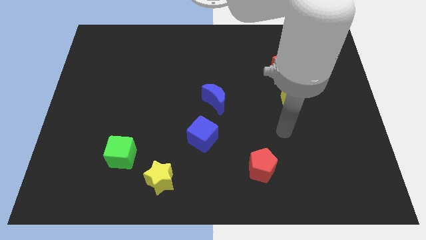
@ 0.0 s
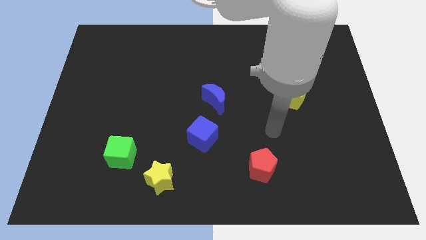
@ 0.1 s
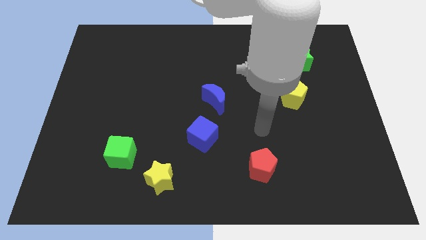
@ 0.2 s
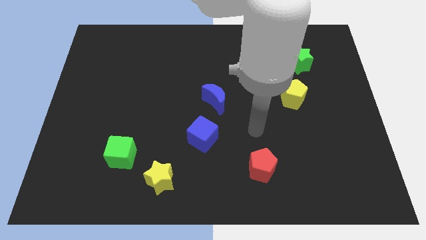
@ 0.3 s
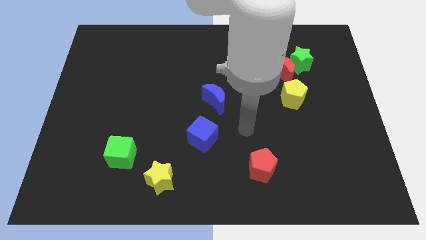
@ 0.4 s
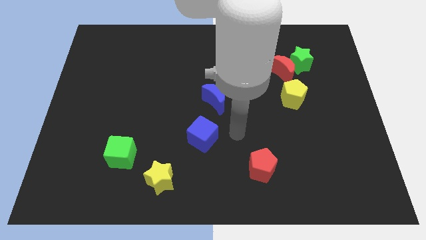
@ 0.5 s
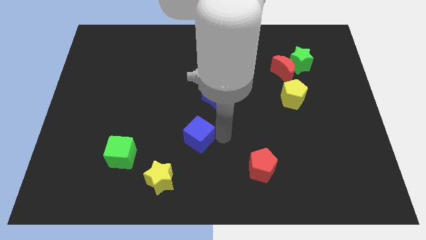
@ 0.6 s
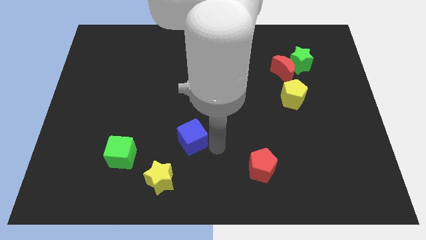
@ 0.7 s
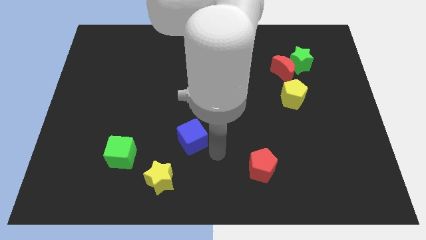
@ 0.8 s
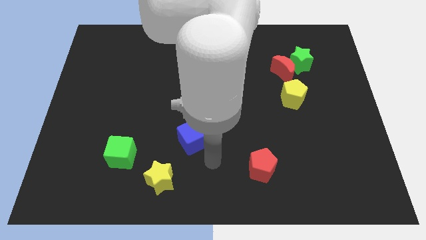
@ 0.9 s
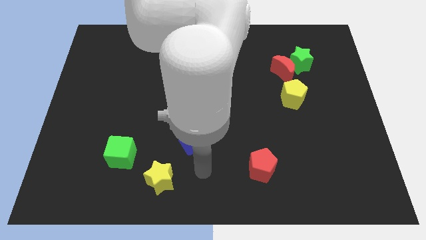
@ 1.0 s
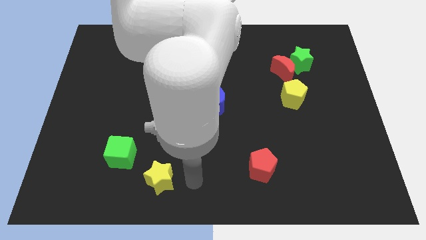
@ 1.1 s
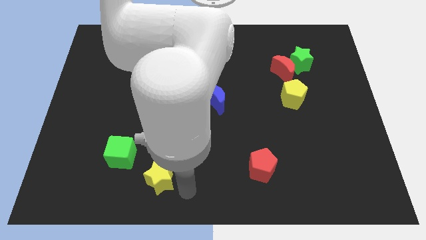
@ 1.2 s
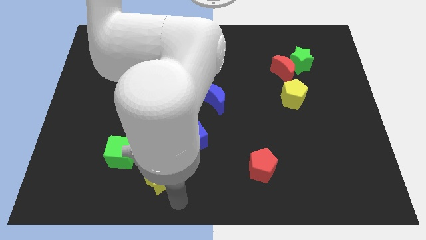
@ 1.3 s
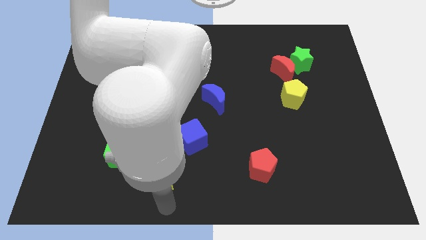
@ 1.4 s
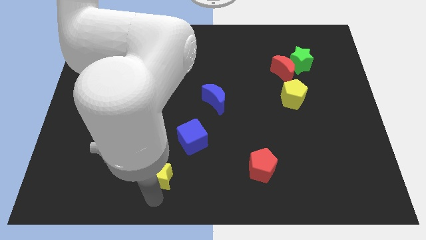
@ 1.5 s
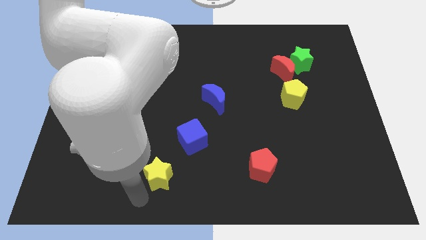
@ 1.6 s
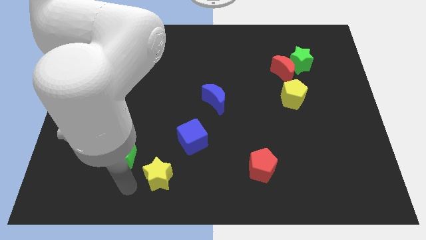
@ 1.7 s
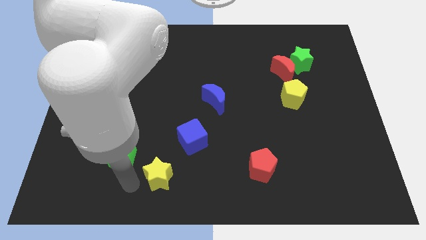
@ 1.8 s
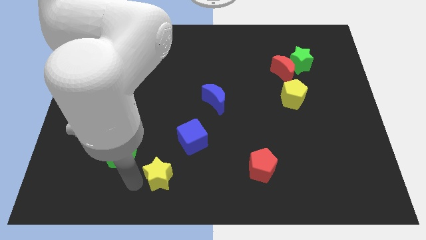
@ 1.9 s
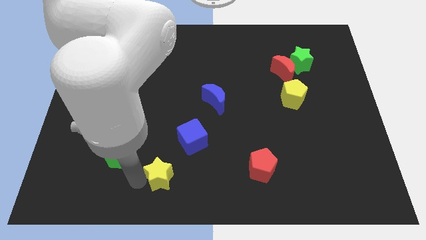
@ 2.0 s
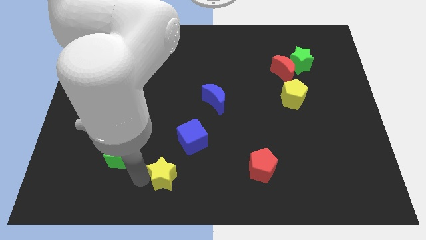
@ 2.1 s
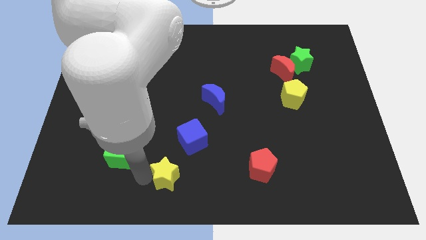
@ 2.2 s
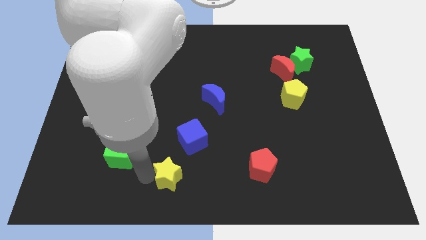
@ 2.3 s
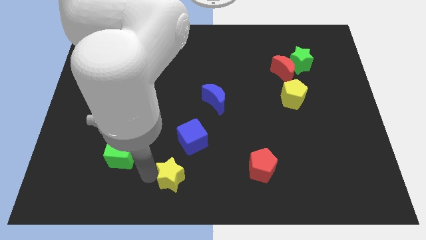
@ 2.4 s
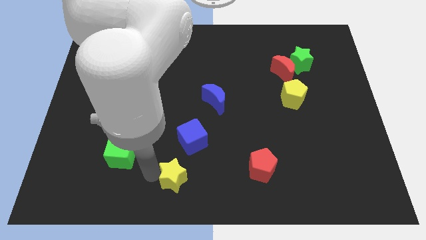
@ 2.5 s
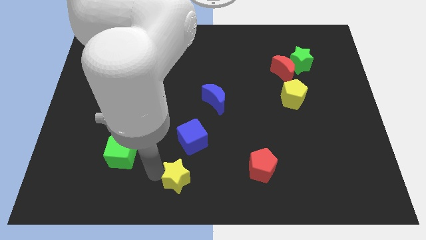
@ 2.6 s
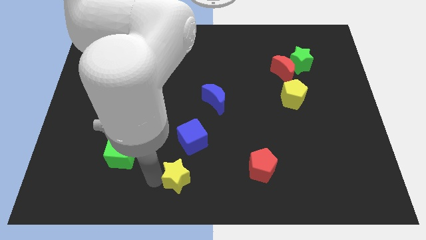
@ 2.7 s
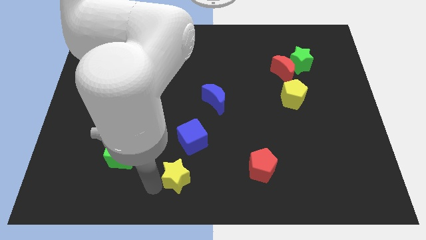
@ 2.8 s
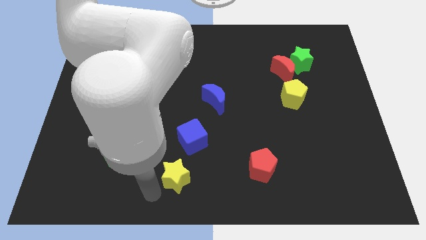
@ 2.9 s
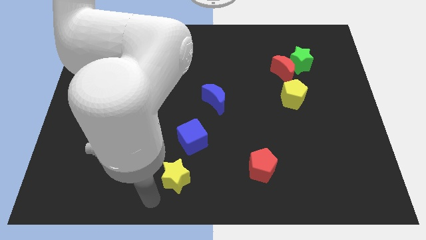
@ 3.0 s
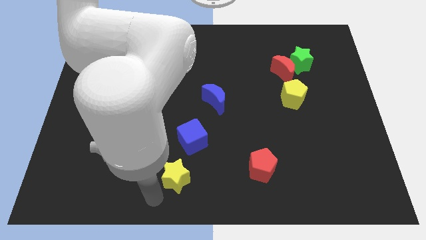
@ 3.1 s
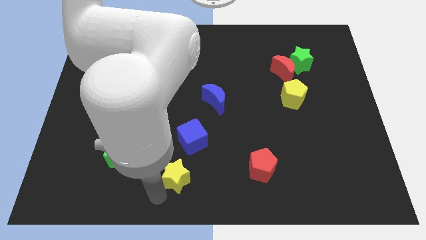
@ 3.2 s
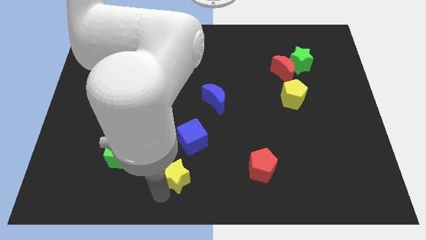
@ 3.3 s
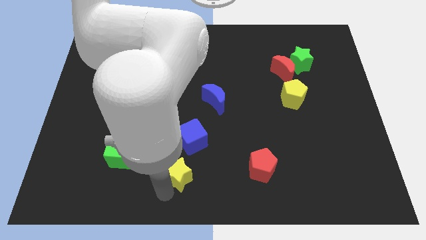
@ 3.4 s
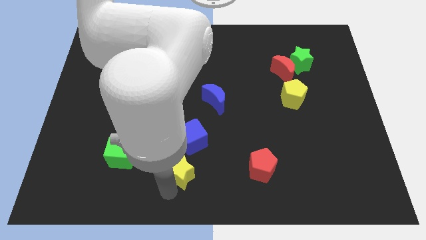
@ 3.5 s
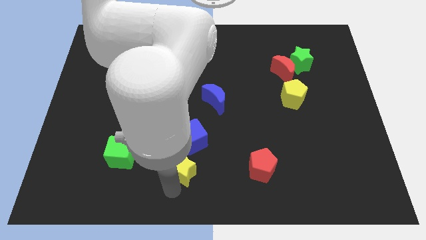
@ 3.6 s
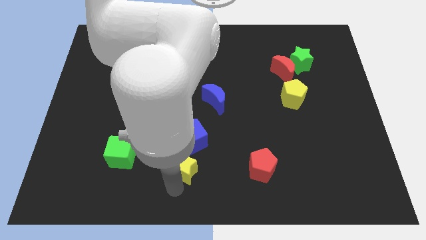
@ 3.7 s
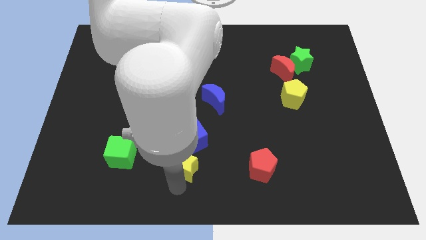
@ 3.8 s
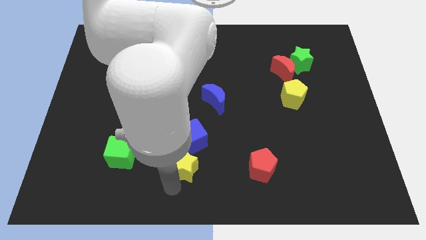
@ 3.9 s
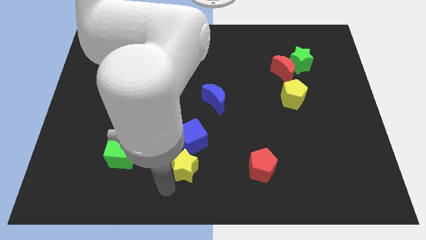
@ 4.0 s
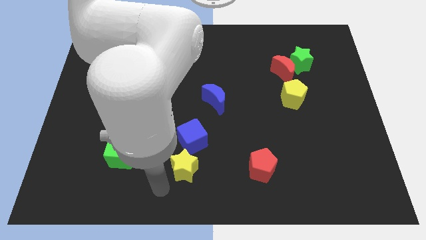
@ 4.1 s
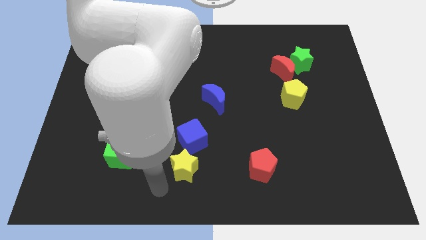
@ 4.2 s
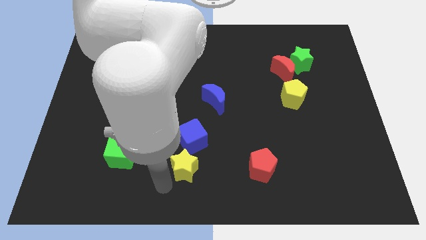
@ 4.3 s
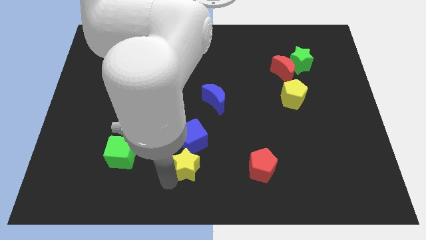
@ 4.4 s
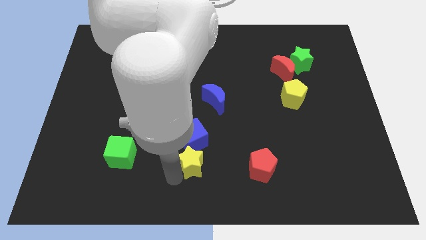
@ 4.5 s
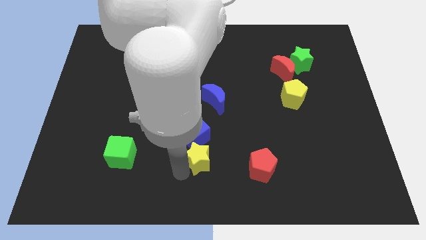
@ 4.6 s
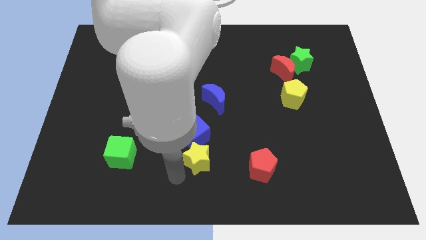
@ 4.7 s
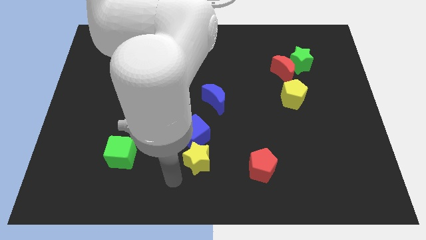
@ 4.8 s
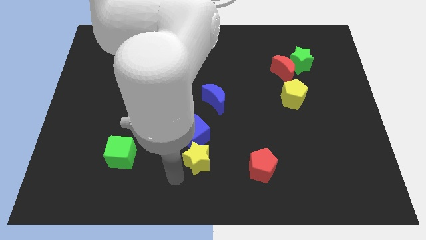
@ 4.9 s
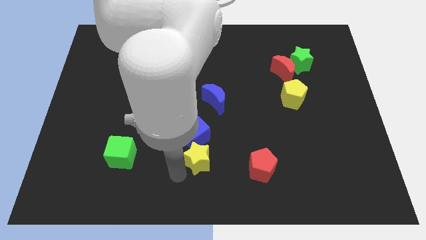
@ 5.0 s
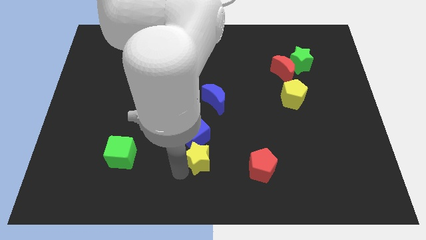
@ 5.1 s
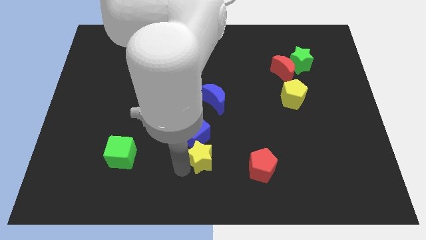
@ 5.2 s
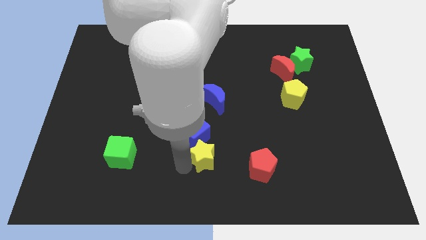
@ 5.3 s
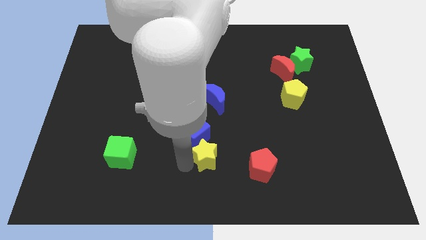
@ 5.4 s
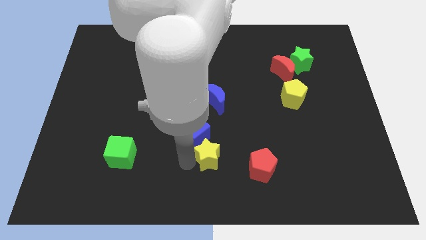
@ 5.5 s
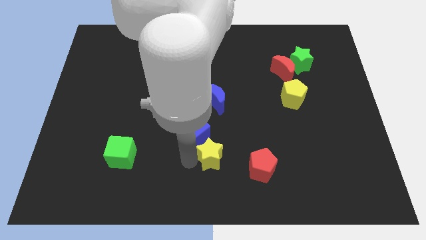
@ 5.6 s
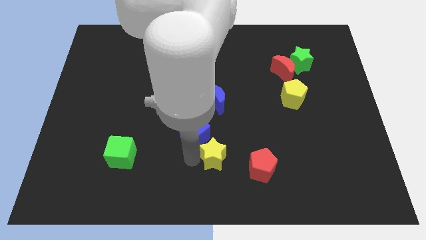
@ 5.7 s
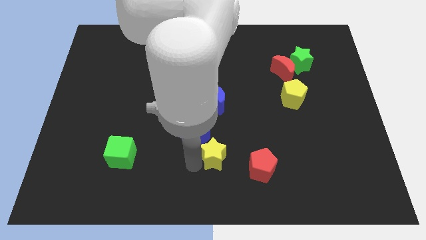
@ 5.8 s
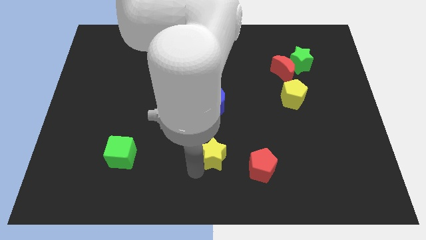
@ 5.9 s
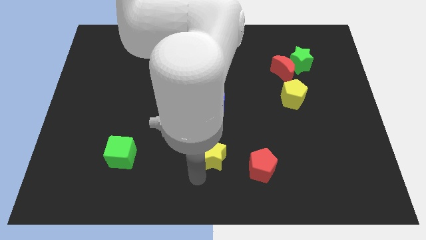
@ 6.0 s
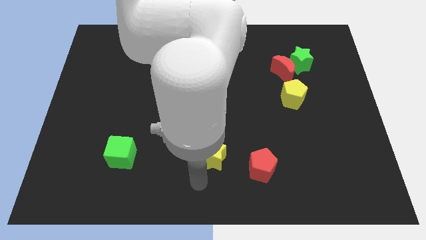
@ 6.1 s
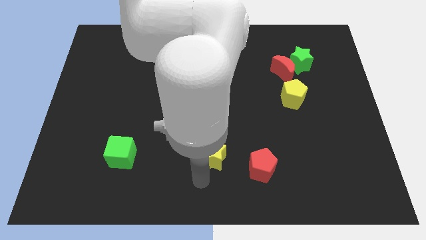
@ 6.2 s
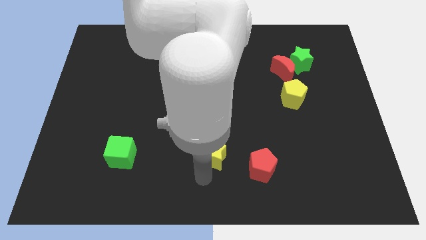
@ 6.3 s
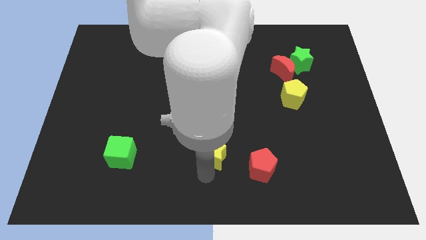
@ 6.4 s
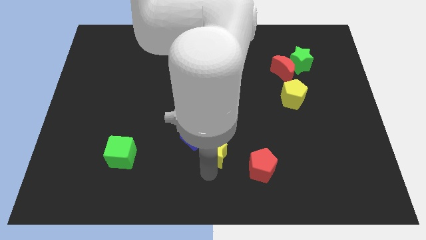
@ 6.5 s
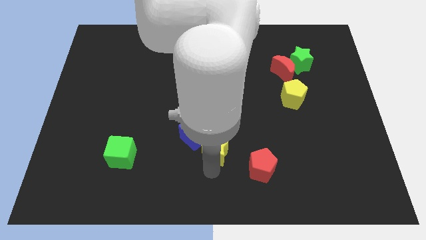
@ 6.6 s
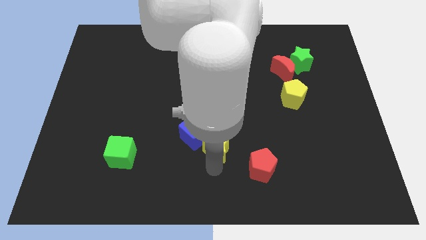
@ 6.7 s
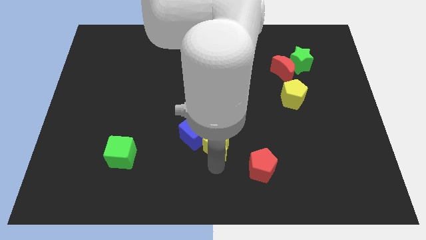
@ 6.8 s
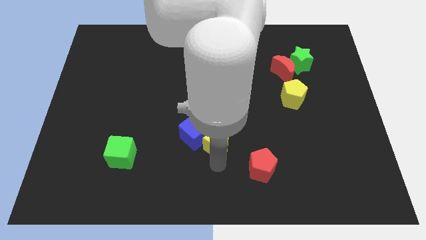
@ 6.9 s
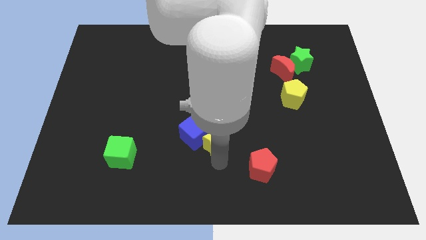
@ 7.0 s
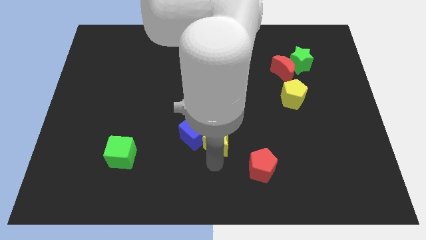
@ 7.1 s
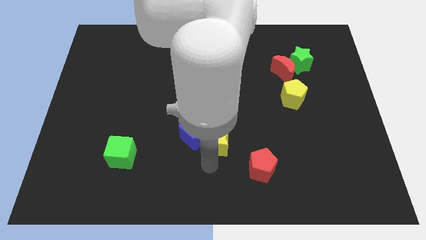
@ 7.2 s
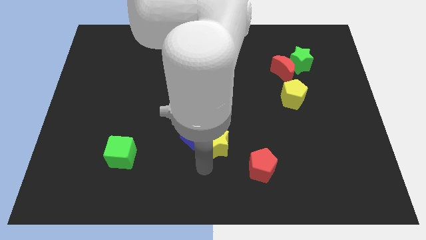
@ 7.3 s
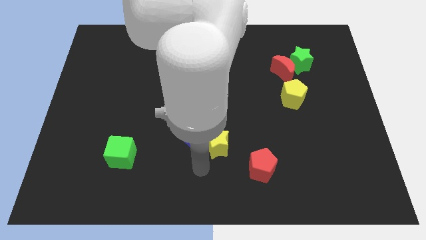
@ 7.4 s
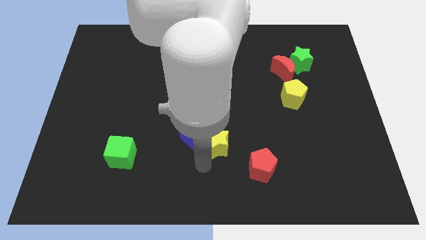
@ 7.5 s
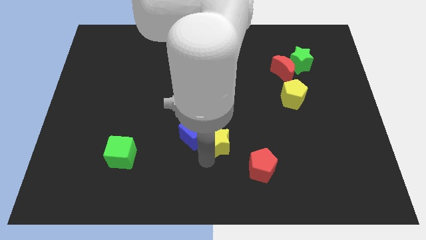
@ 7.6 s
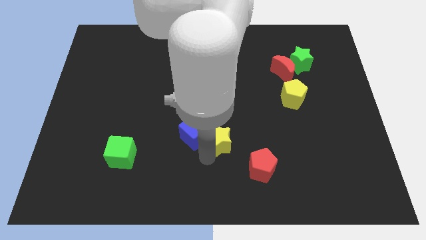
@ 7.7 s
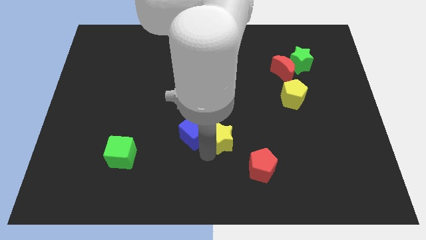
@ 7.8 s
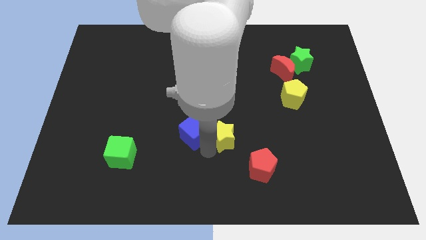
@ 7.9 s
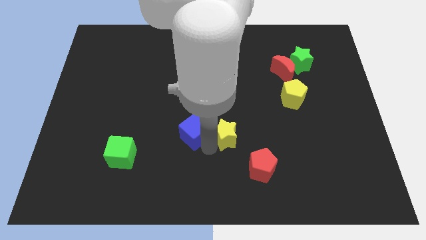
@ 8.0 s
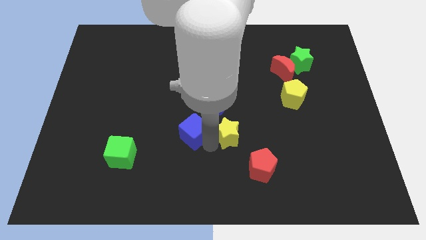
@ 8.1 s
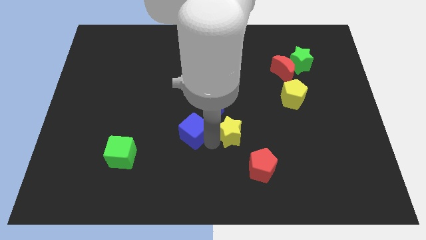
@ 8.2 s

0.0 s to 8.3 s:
put the yellow star to the bottom right of the blue moon
